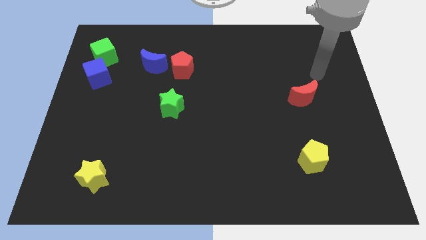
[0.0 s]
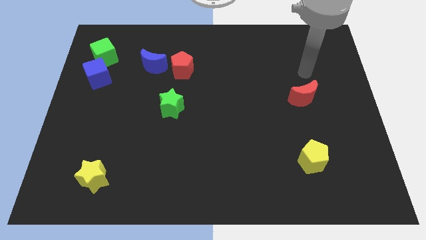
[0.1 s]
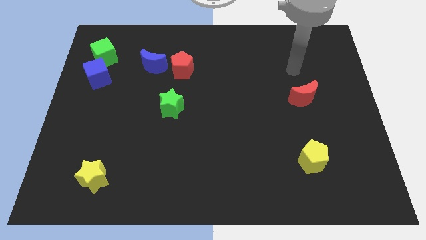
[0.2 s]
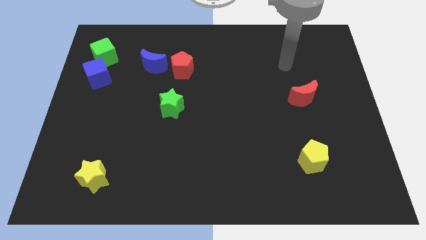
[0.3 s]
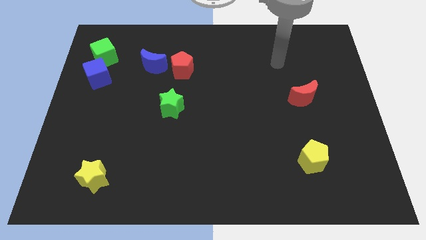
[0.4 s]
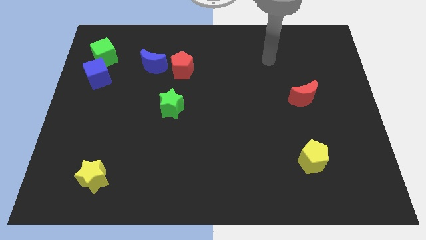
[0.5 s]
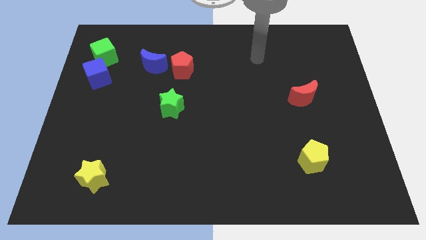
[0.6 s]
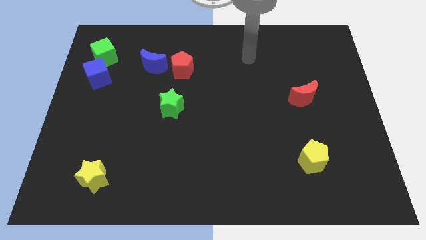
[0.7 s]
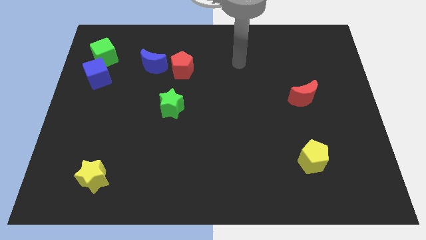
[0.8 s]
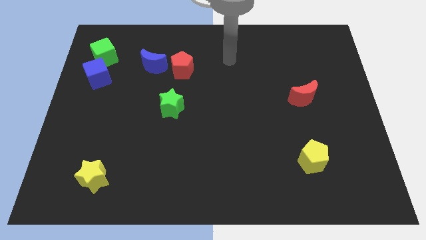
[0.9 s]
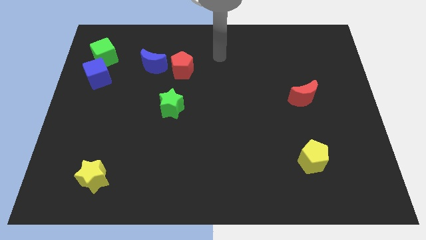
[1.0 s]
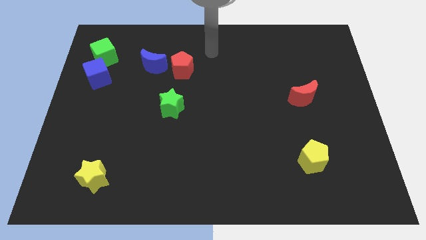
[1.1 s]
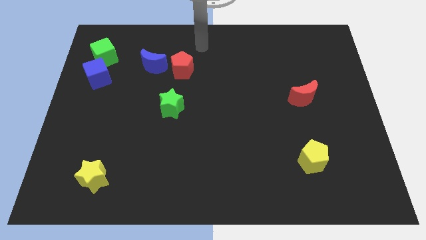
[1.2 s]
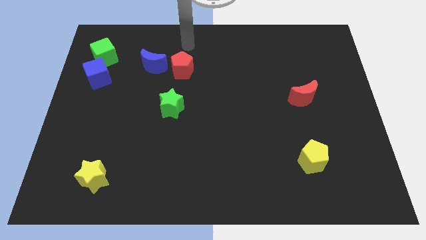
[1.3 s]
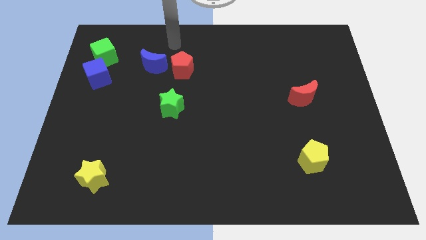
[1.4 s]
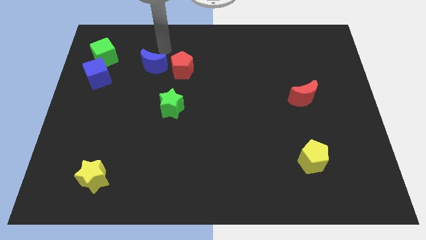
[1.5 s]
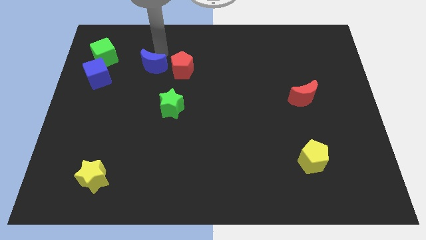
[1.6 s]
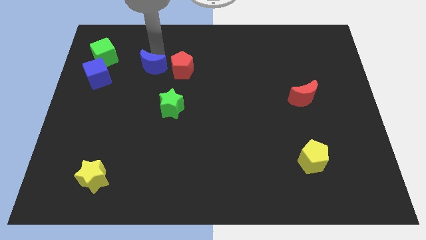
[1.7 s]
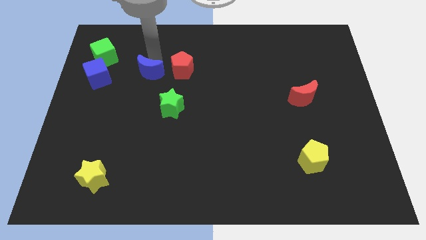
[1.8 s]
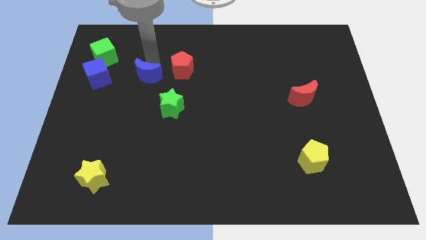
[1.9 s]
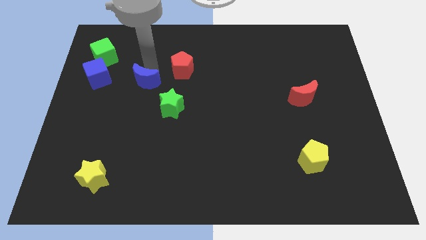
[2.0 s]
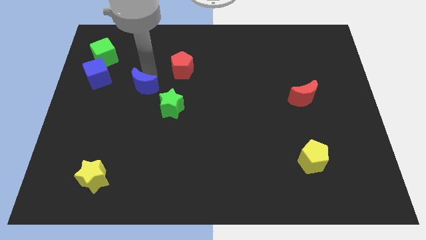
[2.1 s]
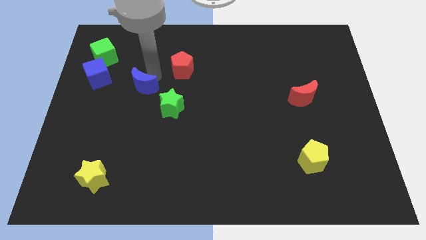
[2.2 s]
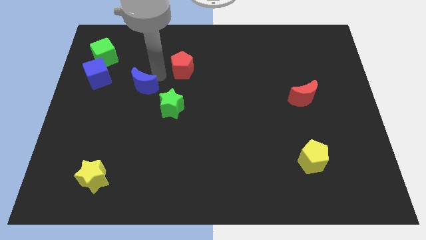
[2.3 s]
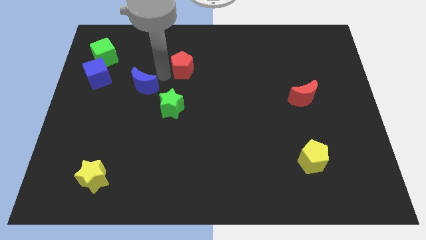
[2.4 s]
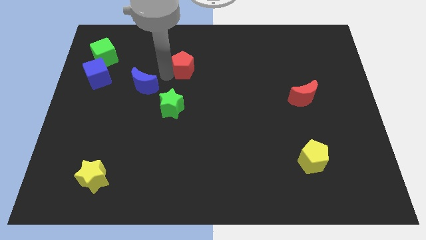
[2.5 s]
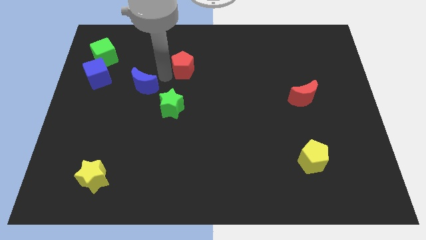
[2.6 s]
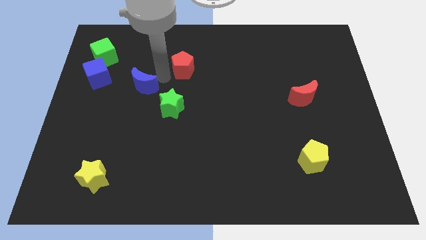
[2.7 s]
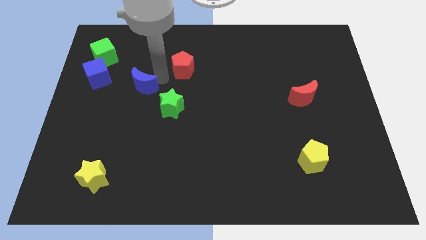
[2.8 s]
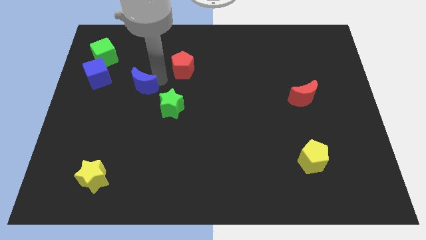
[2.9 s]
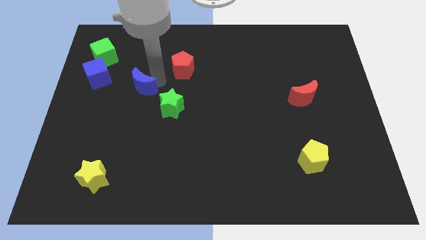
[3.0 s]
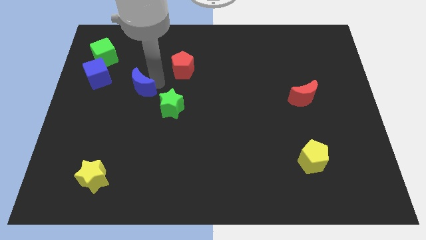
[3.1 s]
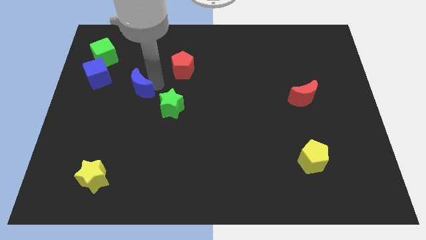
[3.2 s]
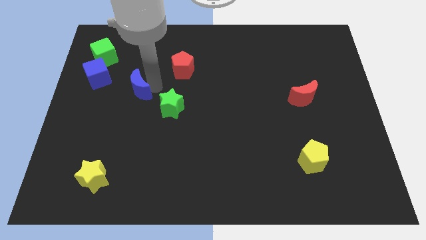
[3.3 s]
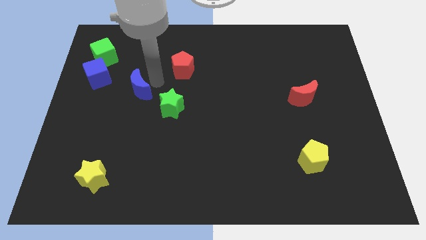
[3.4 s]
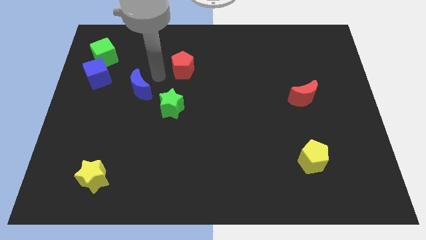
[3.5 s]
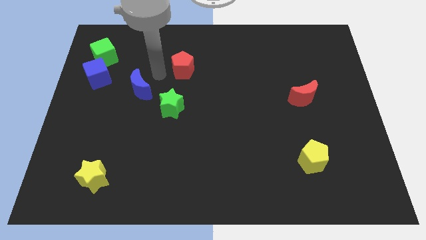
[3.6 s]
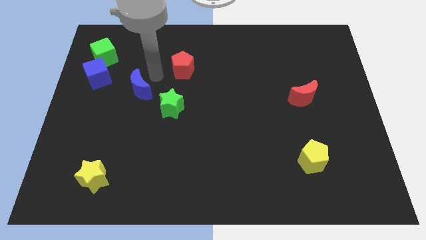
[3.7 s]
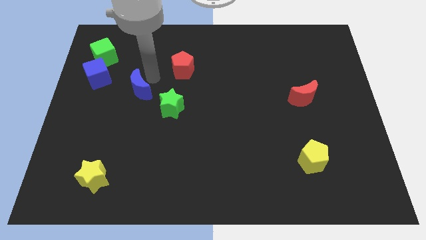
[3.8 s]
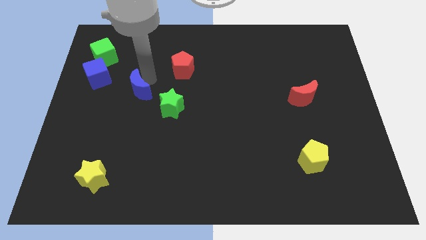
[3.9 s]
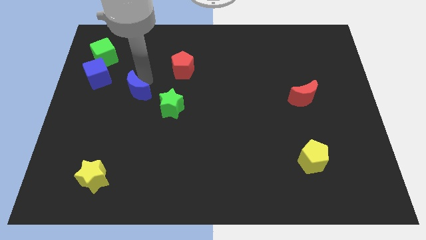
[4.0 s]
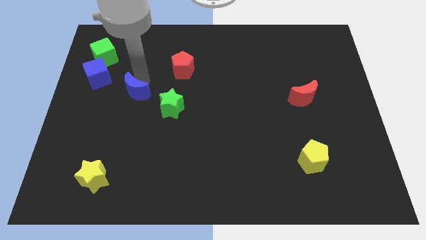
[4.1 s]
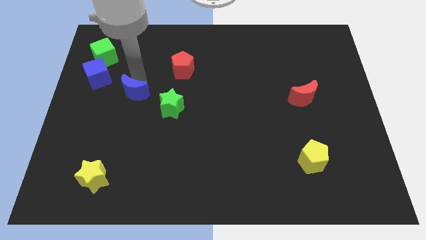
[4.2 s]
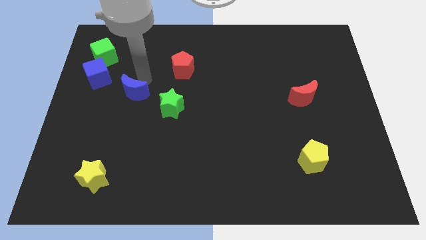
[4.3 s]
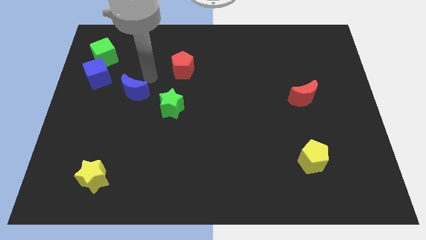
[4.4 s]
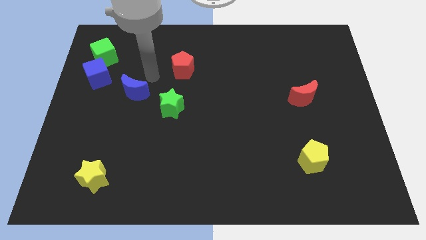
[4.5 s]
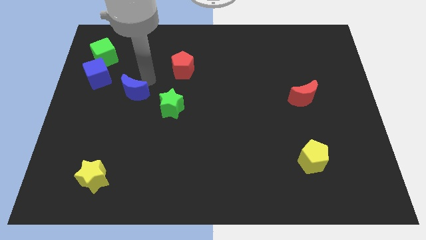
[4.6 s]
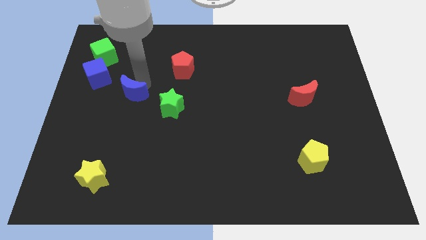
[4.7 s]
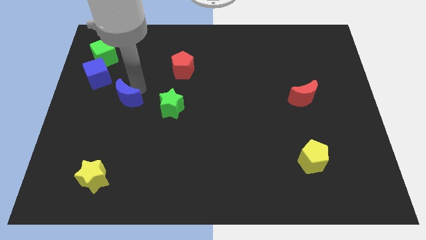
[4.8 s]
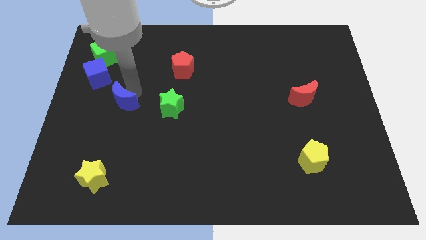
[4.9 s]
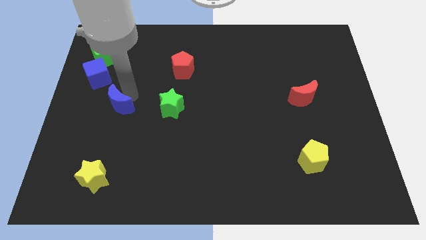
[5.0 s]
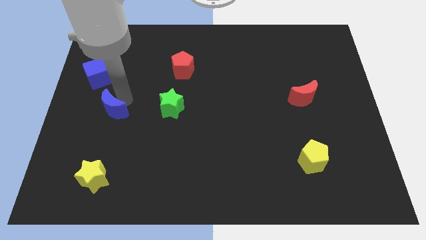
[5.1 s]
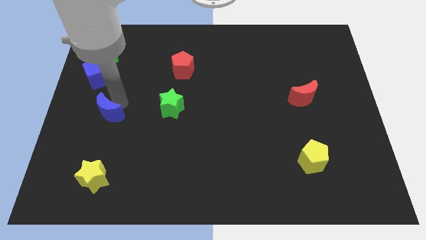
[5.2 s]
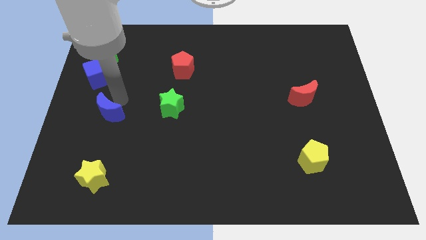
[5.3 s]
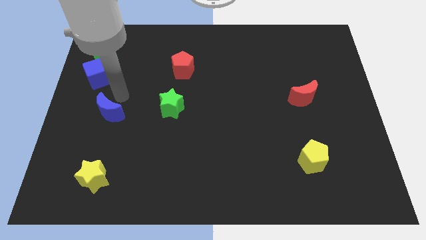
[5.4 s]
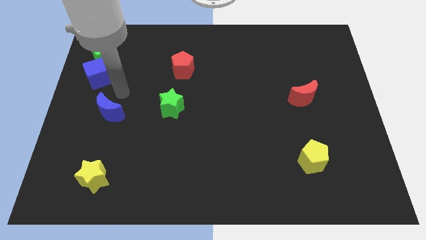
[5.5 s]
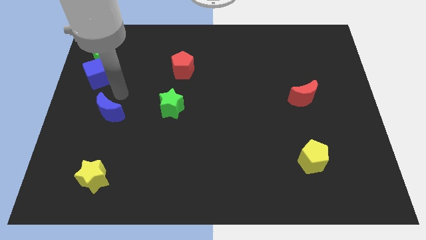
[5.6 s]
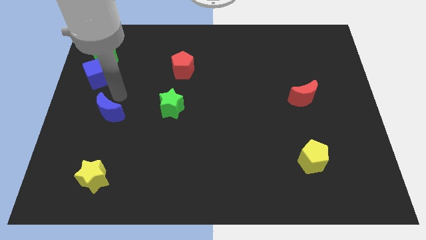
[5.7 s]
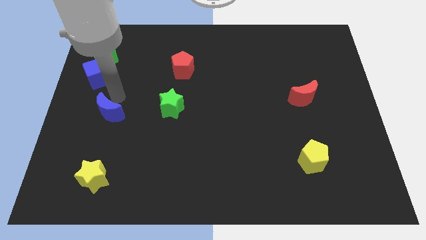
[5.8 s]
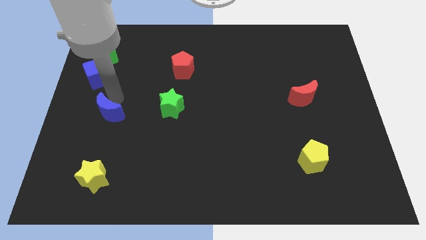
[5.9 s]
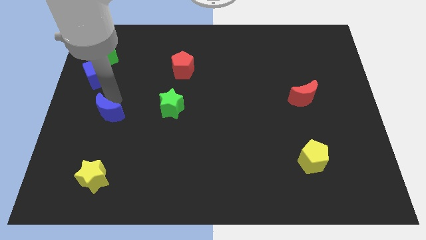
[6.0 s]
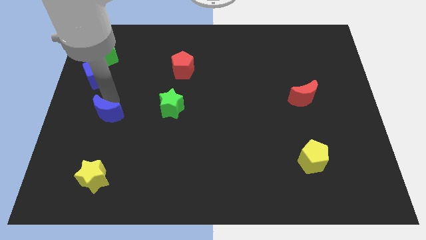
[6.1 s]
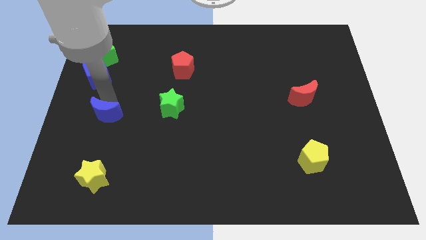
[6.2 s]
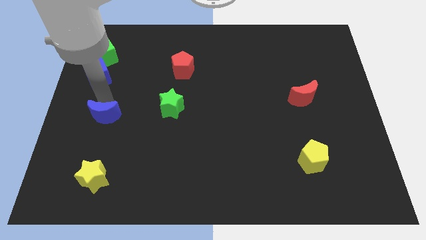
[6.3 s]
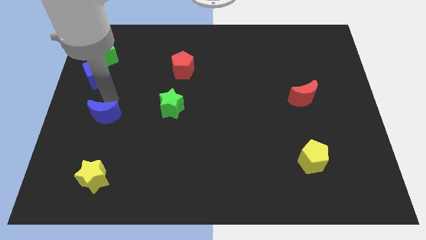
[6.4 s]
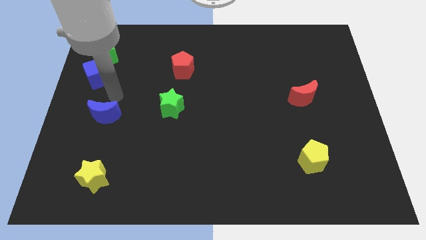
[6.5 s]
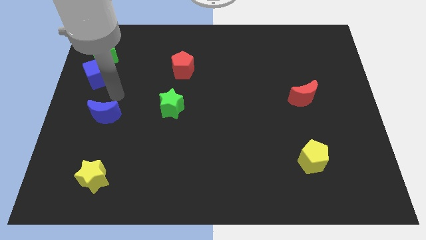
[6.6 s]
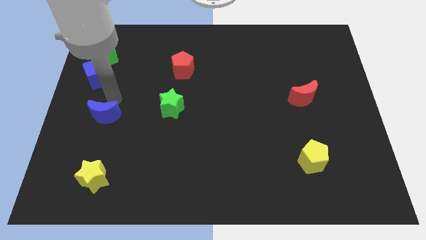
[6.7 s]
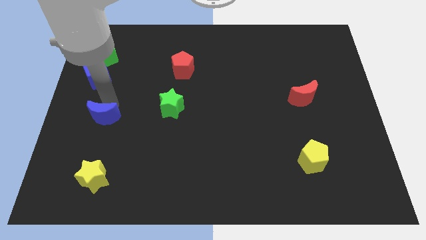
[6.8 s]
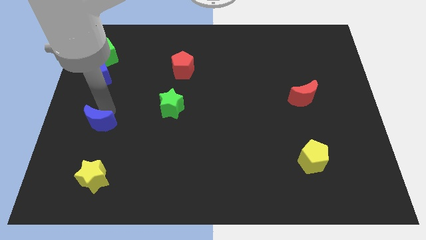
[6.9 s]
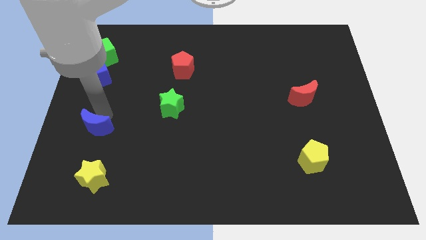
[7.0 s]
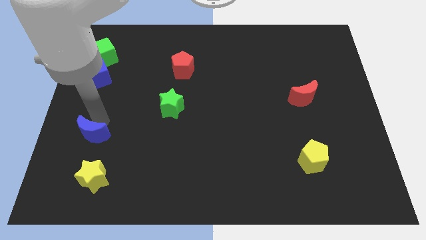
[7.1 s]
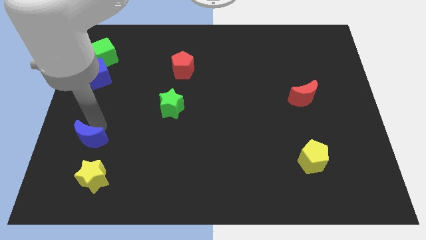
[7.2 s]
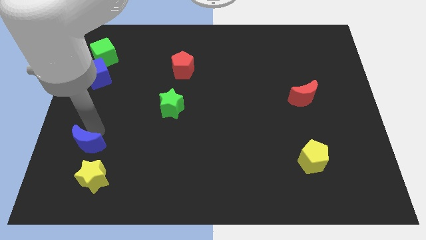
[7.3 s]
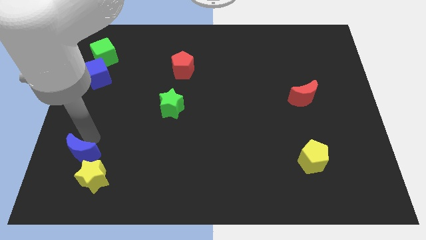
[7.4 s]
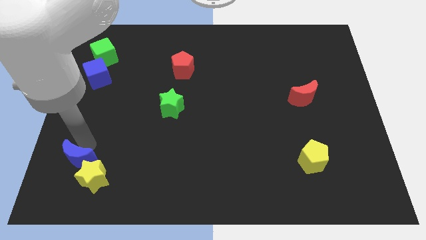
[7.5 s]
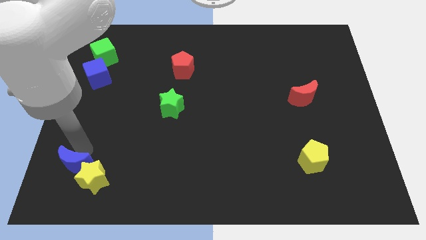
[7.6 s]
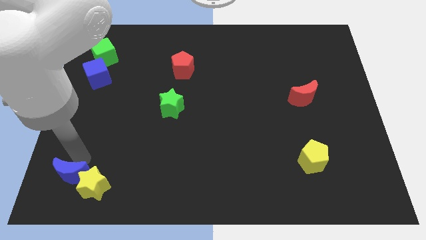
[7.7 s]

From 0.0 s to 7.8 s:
slide the blue moon to the bottom left corner
